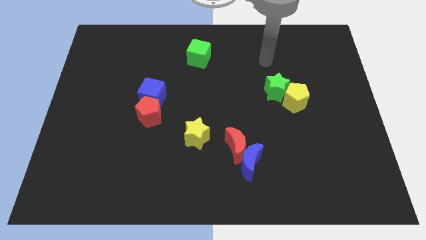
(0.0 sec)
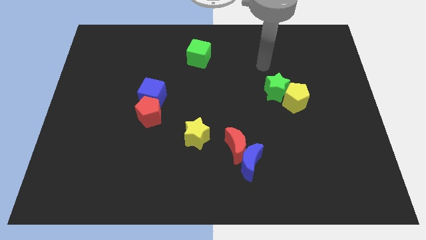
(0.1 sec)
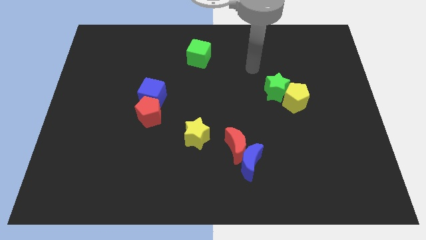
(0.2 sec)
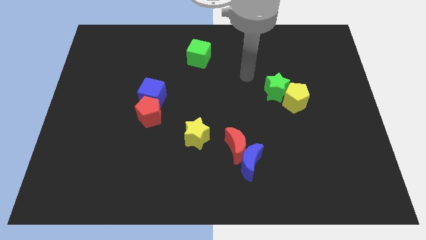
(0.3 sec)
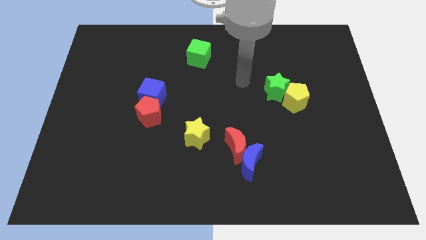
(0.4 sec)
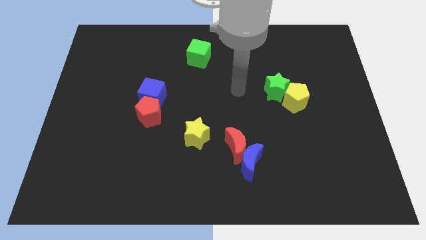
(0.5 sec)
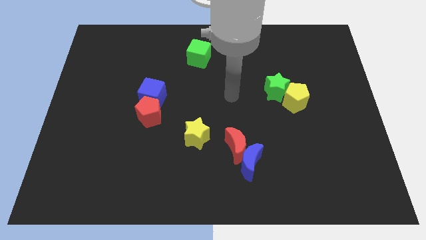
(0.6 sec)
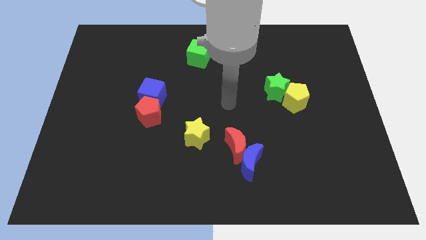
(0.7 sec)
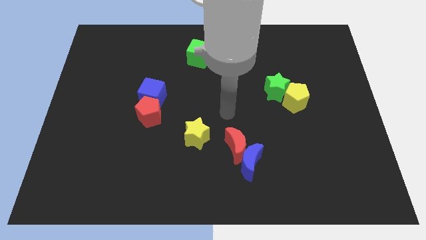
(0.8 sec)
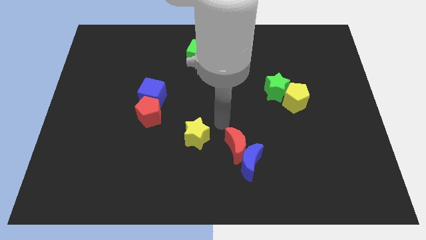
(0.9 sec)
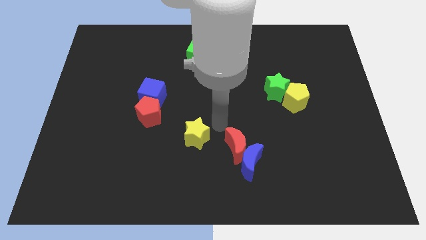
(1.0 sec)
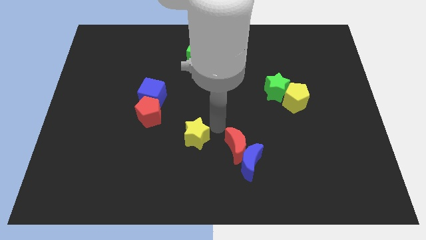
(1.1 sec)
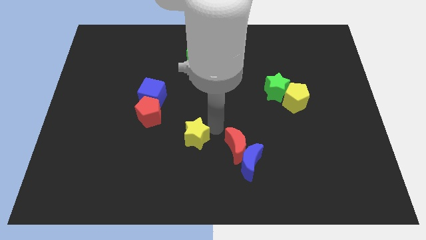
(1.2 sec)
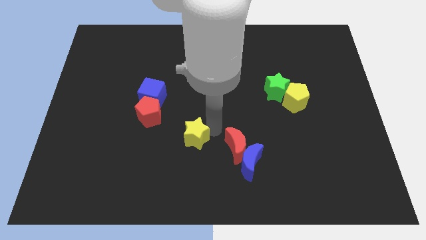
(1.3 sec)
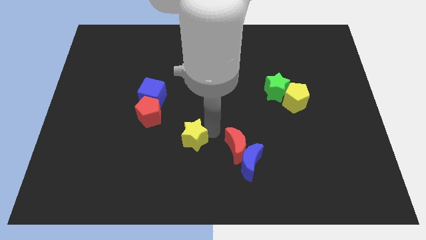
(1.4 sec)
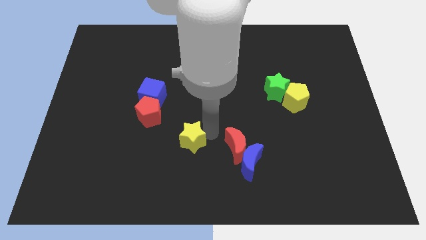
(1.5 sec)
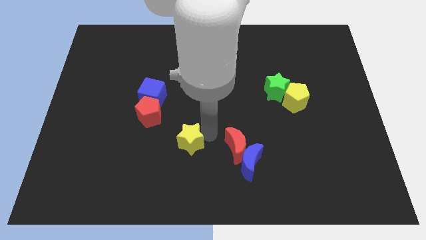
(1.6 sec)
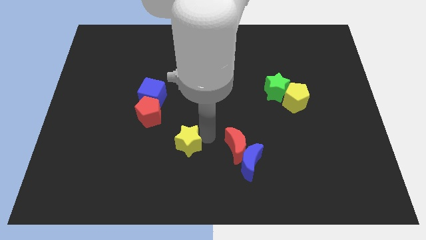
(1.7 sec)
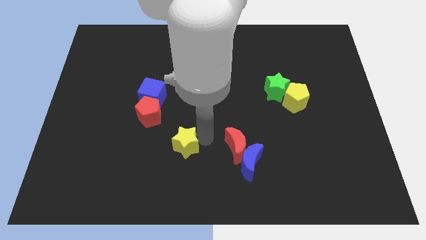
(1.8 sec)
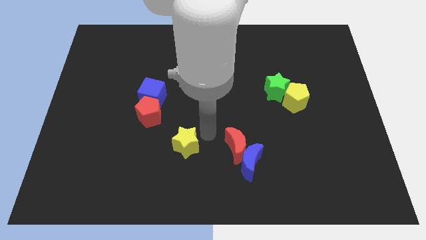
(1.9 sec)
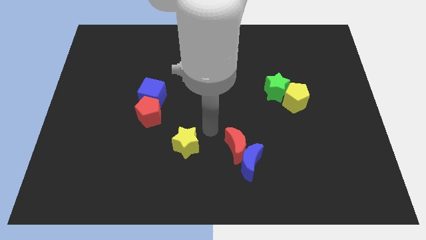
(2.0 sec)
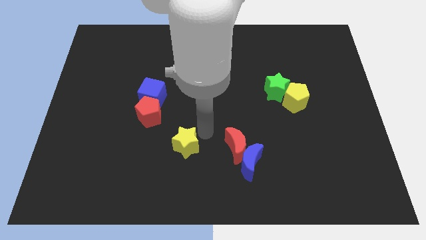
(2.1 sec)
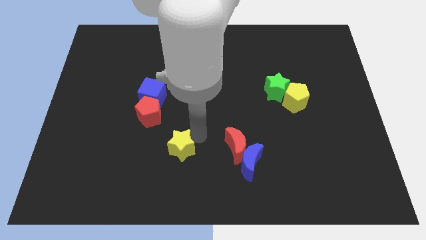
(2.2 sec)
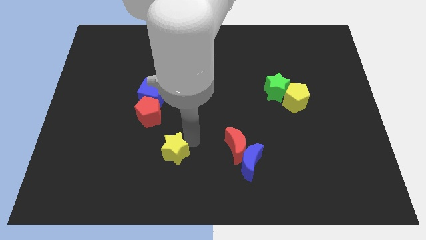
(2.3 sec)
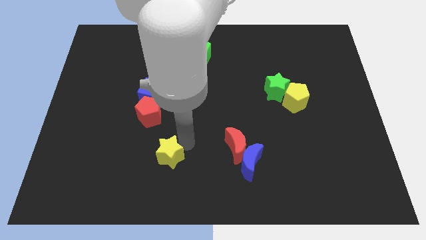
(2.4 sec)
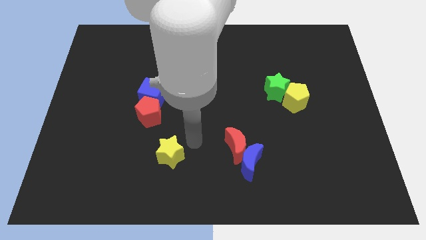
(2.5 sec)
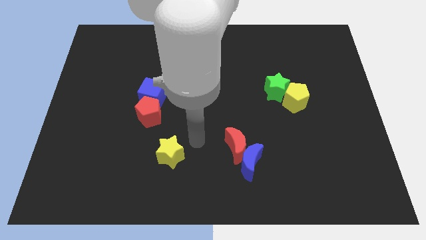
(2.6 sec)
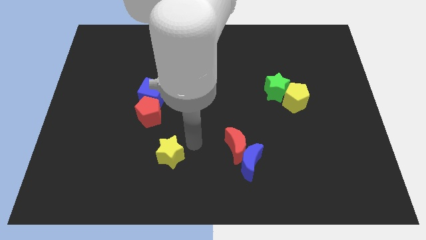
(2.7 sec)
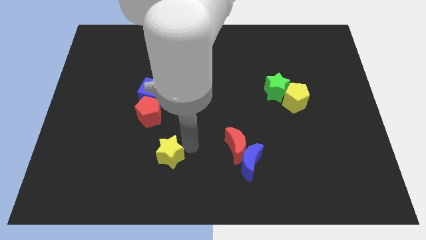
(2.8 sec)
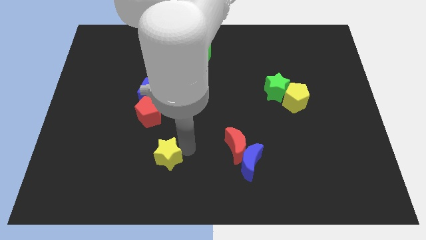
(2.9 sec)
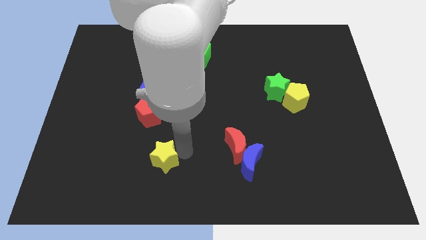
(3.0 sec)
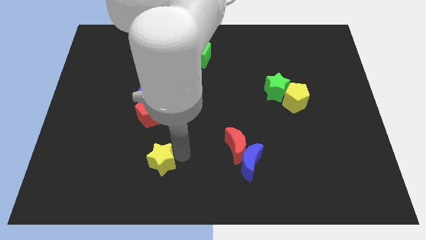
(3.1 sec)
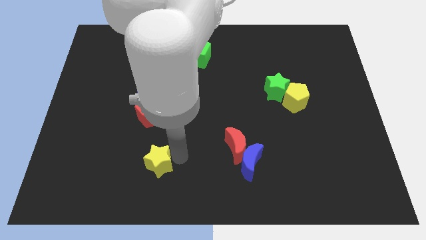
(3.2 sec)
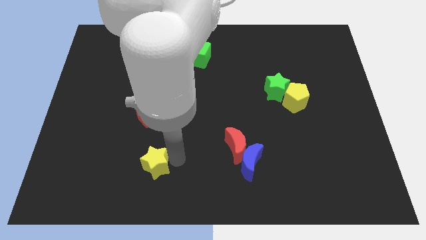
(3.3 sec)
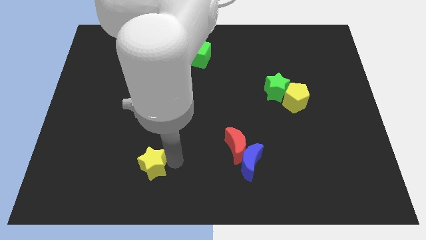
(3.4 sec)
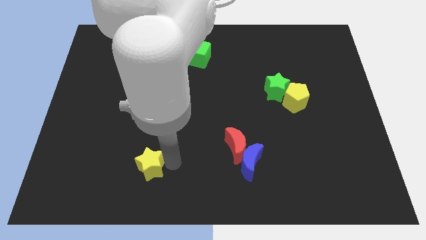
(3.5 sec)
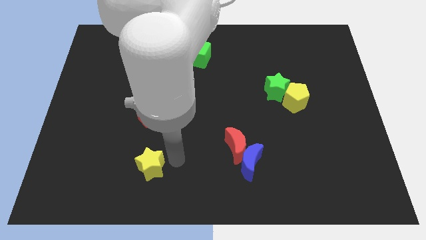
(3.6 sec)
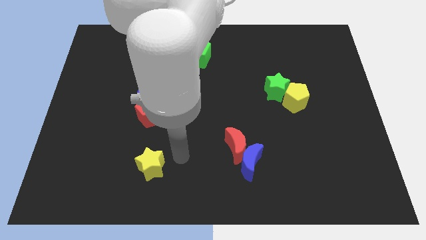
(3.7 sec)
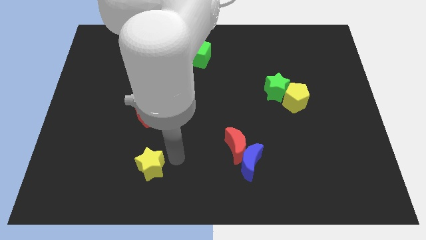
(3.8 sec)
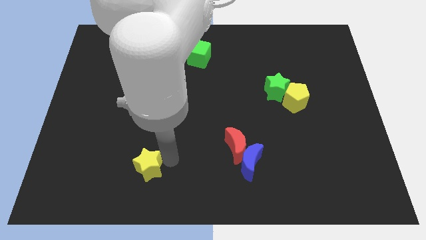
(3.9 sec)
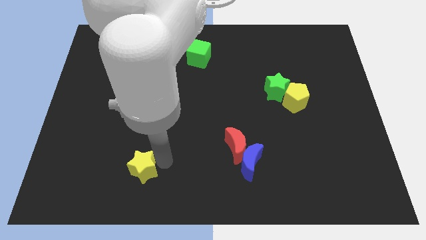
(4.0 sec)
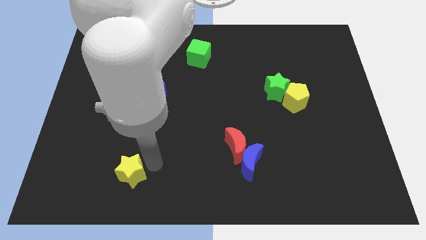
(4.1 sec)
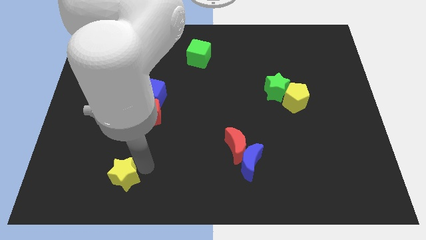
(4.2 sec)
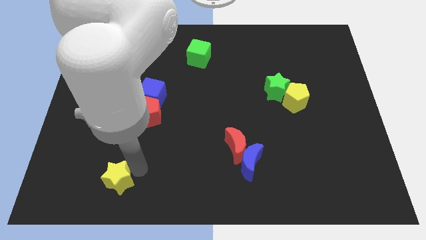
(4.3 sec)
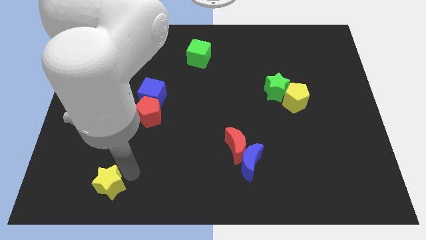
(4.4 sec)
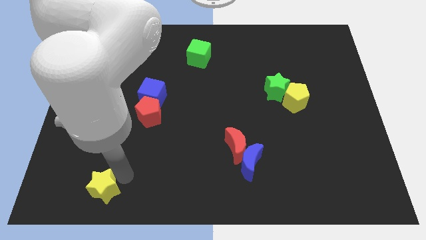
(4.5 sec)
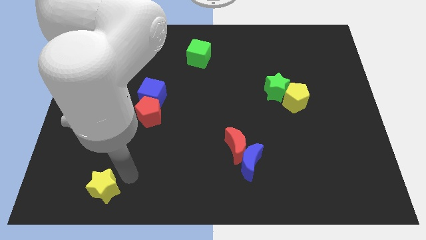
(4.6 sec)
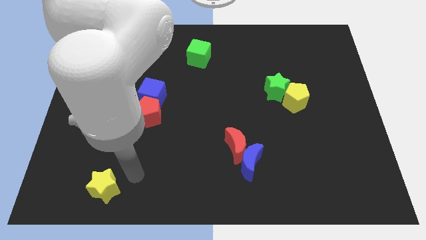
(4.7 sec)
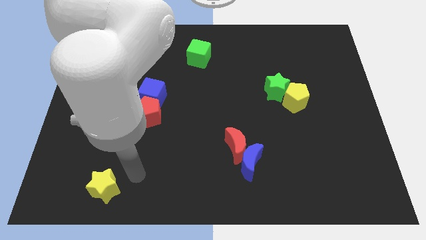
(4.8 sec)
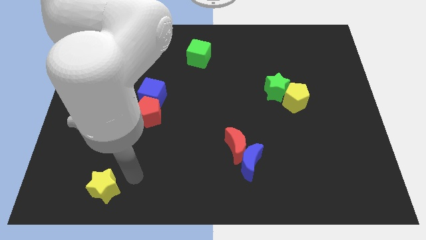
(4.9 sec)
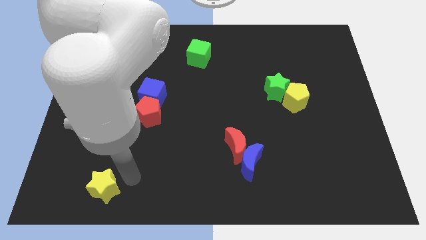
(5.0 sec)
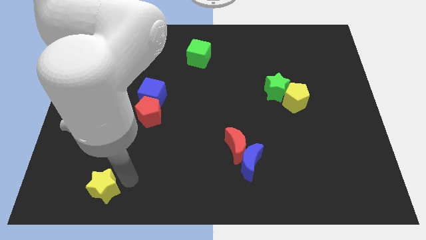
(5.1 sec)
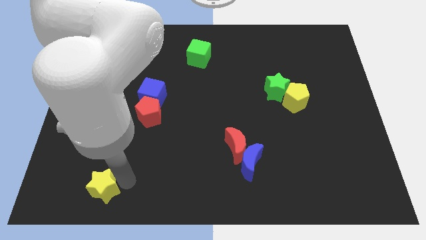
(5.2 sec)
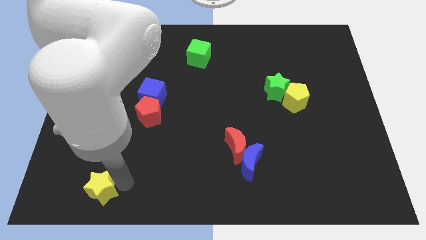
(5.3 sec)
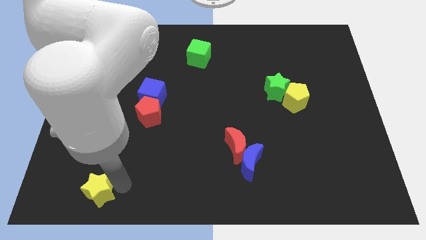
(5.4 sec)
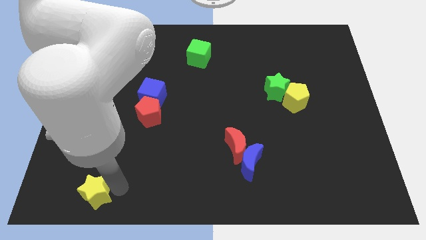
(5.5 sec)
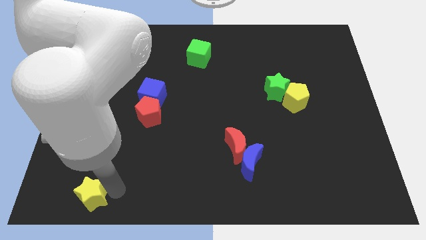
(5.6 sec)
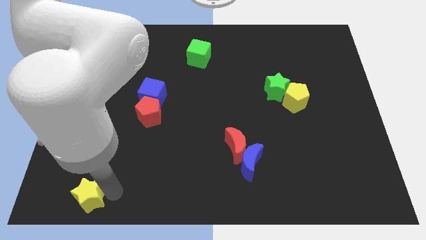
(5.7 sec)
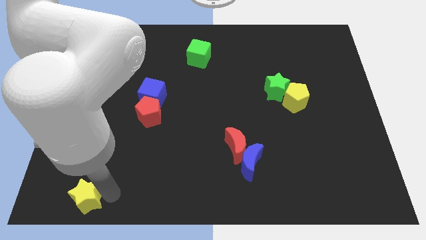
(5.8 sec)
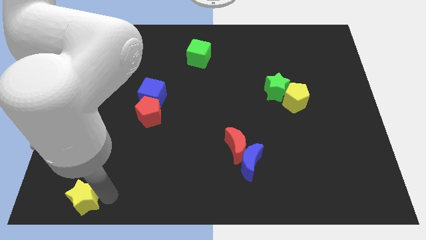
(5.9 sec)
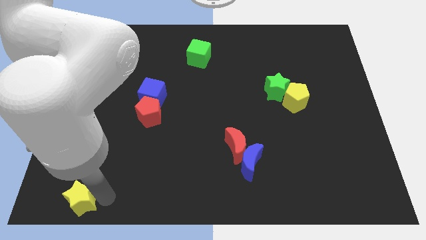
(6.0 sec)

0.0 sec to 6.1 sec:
put the yellow star to the lower left corner

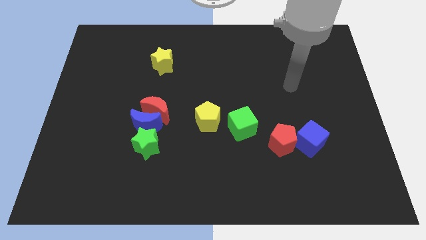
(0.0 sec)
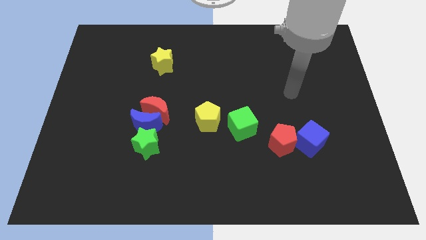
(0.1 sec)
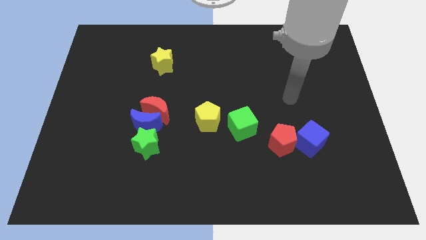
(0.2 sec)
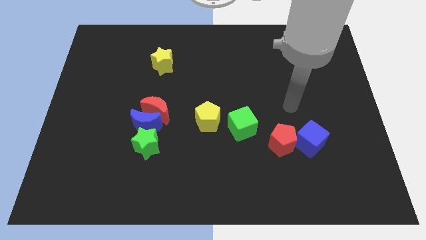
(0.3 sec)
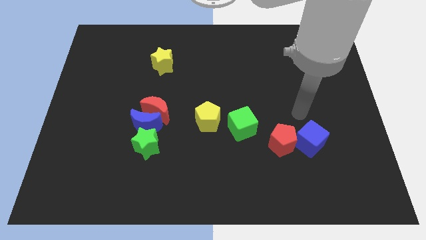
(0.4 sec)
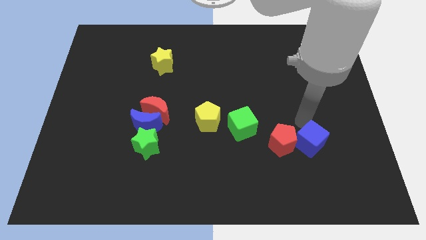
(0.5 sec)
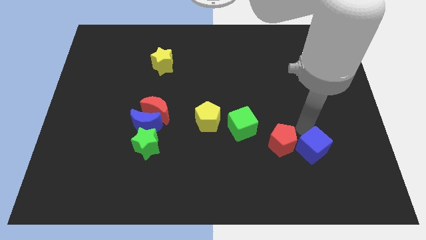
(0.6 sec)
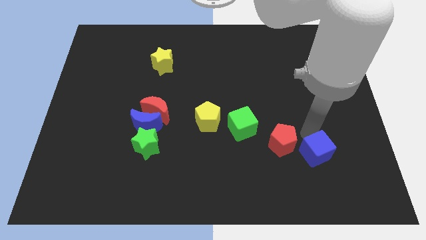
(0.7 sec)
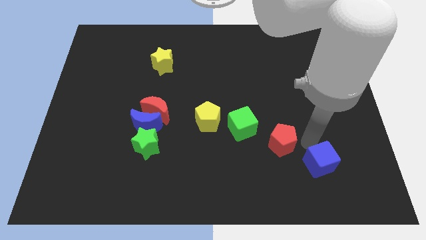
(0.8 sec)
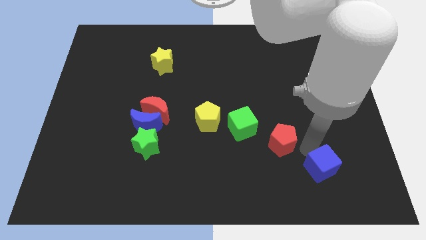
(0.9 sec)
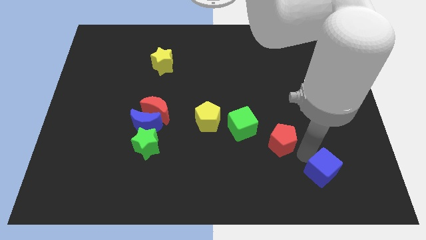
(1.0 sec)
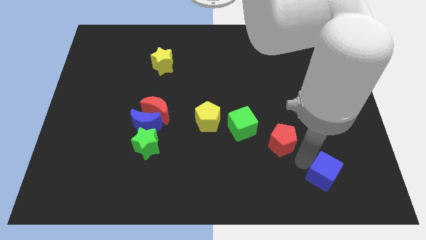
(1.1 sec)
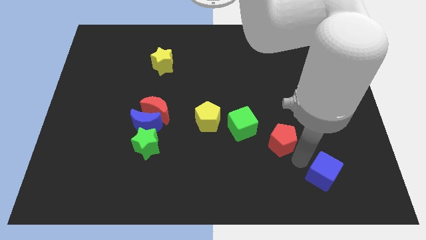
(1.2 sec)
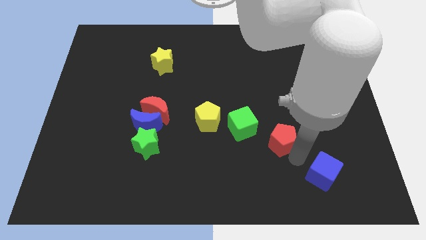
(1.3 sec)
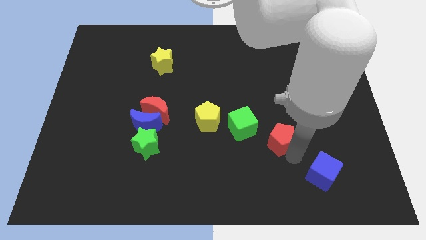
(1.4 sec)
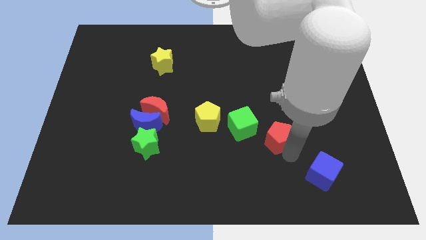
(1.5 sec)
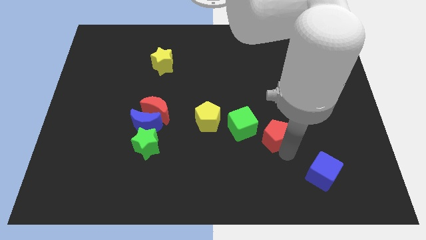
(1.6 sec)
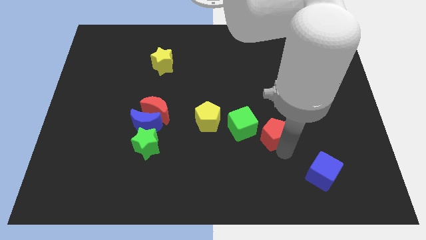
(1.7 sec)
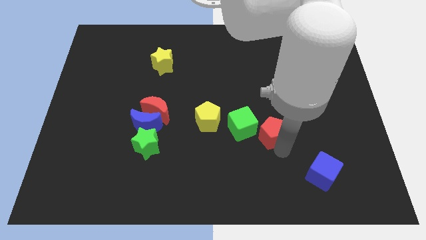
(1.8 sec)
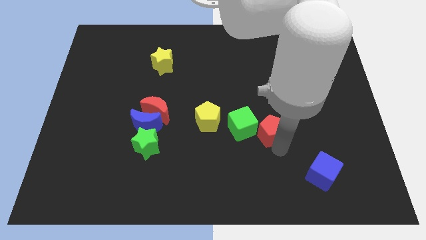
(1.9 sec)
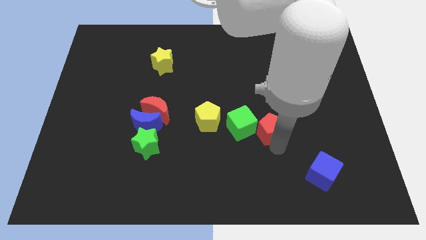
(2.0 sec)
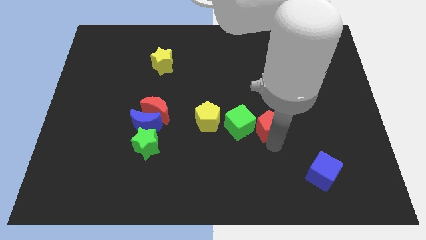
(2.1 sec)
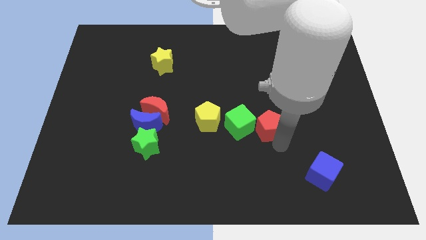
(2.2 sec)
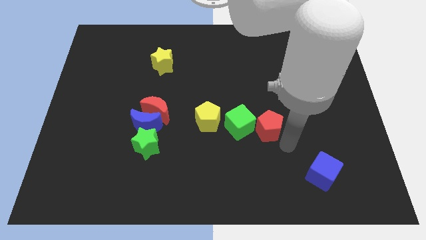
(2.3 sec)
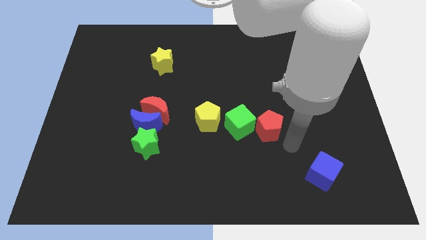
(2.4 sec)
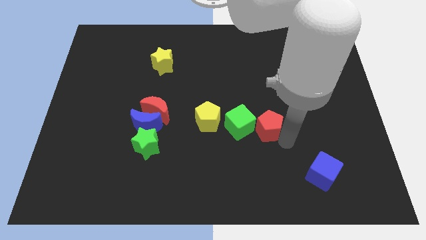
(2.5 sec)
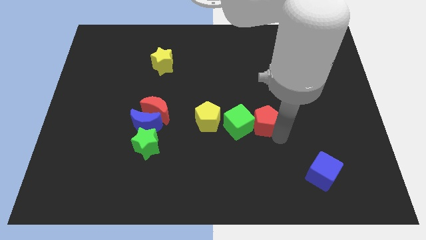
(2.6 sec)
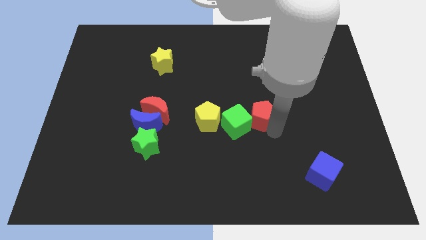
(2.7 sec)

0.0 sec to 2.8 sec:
put the red pentagon to the middle
